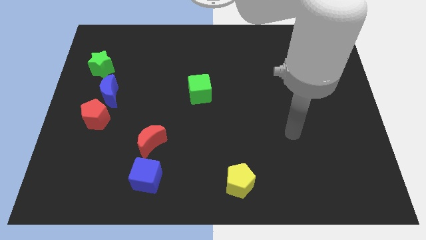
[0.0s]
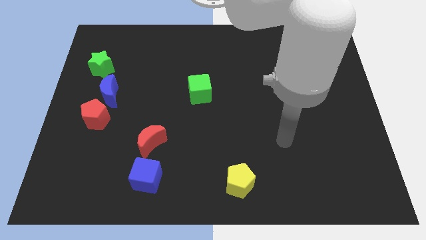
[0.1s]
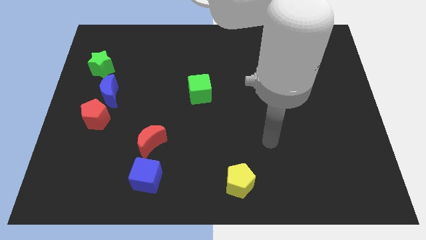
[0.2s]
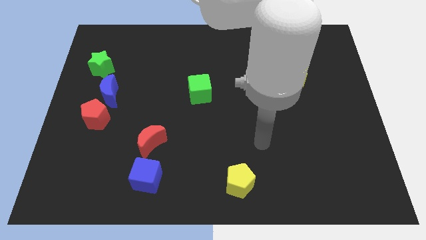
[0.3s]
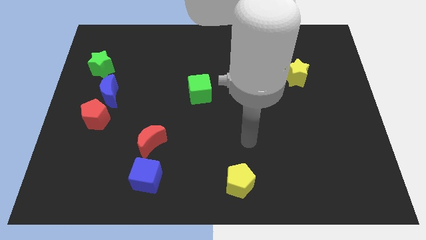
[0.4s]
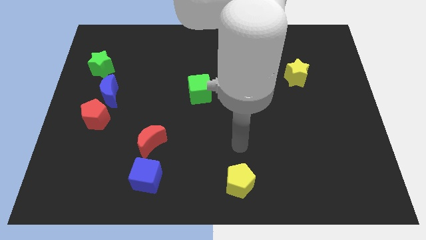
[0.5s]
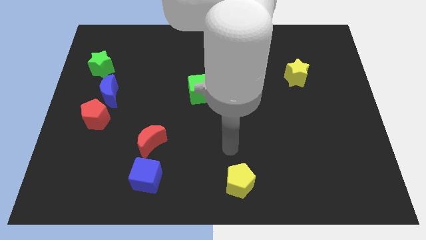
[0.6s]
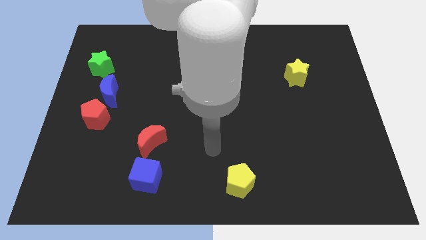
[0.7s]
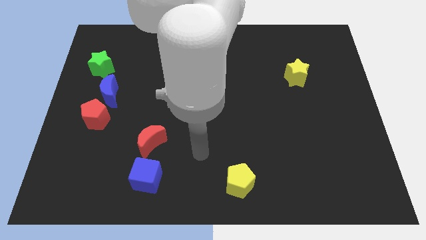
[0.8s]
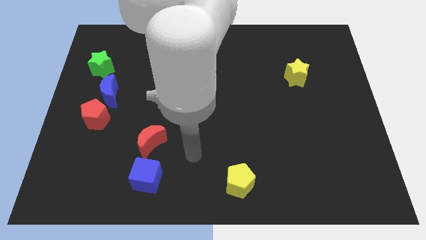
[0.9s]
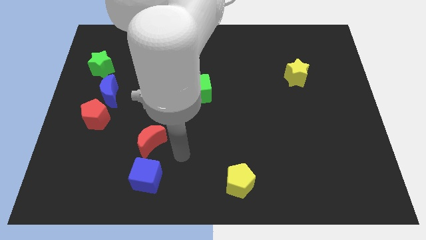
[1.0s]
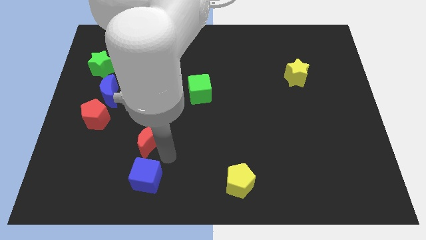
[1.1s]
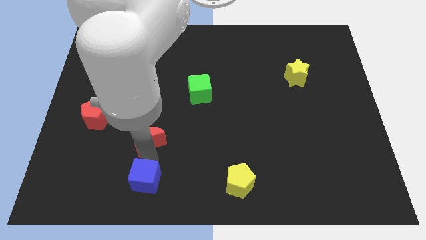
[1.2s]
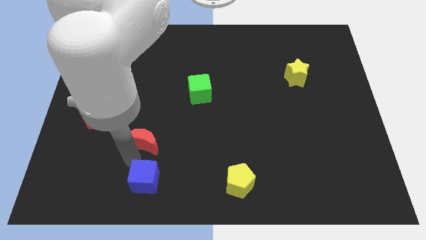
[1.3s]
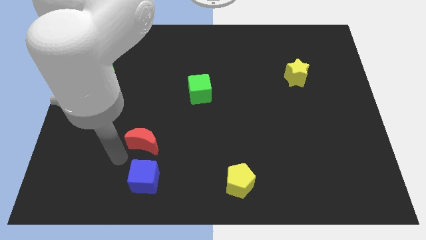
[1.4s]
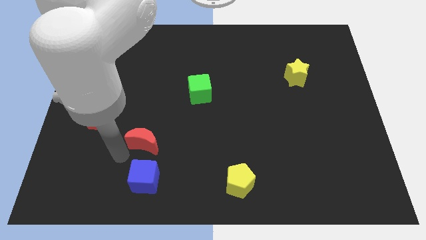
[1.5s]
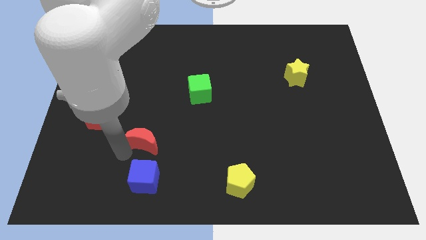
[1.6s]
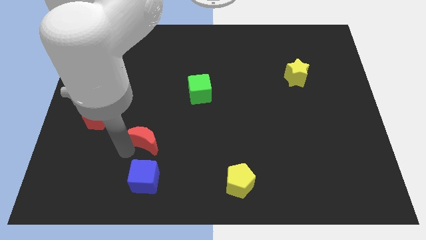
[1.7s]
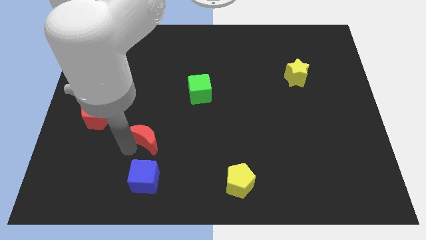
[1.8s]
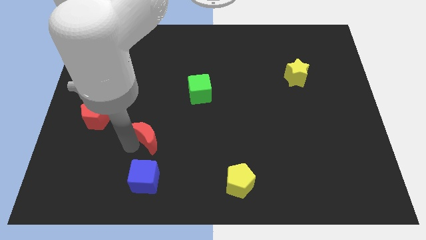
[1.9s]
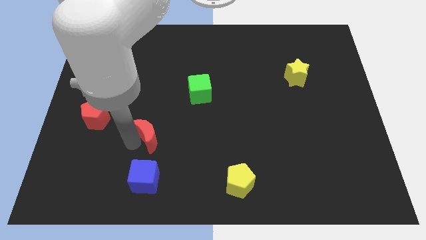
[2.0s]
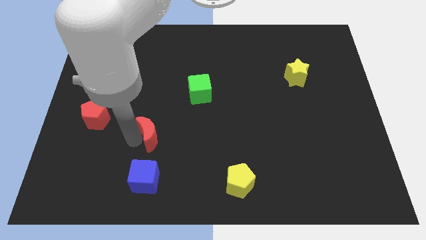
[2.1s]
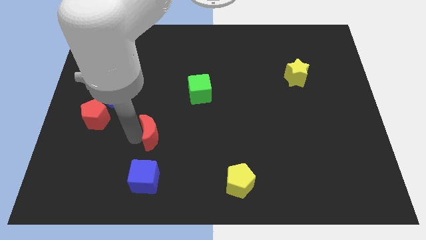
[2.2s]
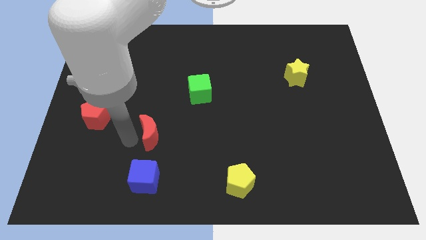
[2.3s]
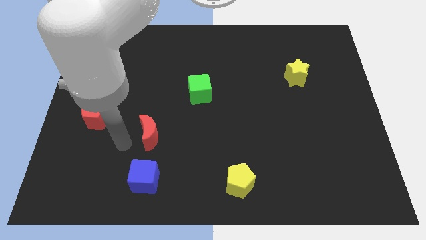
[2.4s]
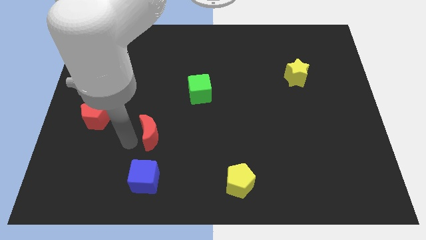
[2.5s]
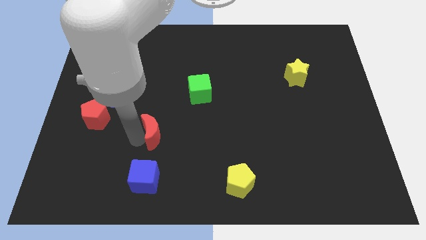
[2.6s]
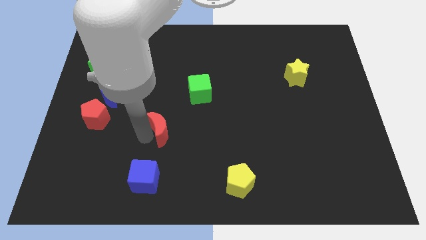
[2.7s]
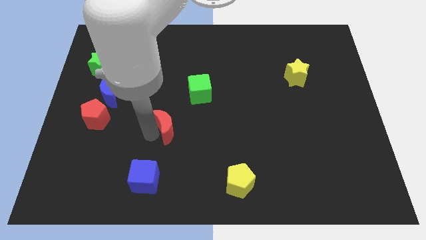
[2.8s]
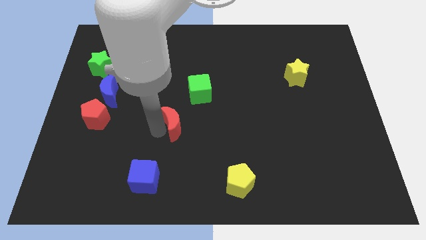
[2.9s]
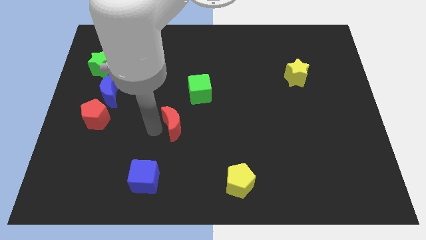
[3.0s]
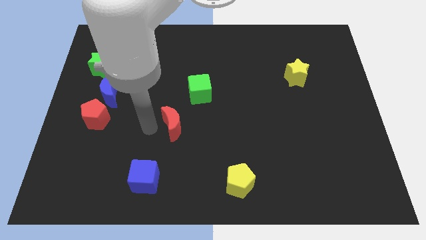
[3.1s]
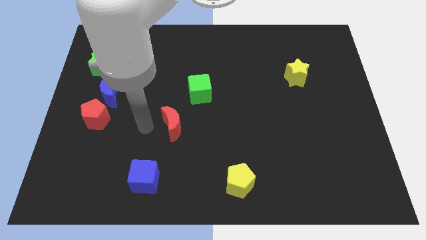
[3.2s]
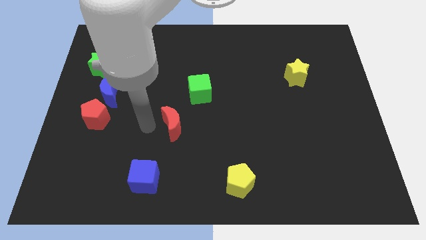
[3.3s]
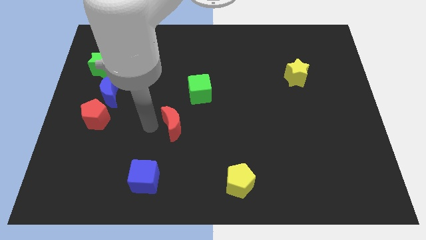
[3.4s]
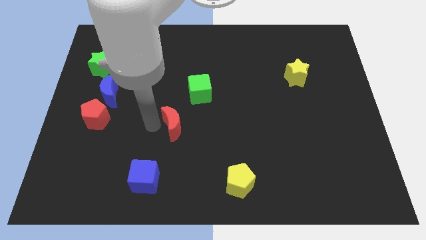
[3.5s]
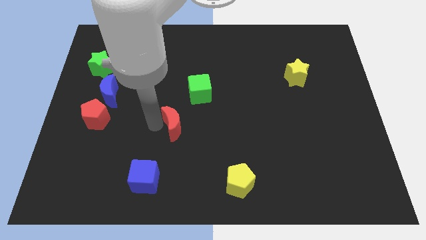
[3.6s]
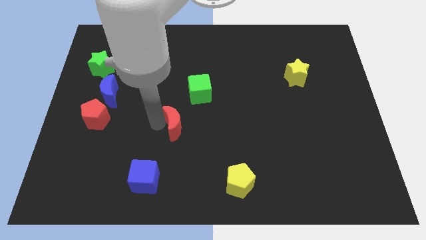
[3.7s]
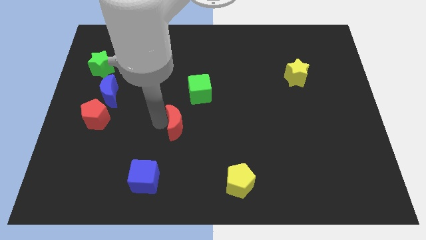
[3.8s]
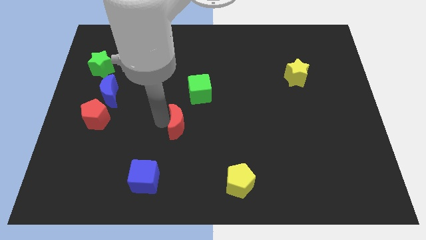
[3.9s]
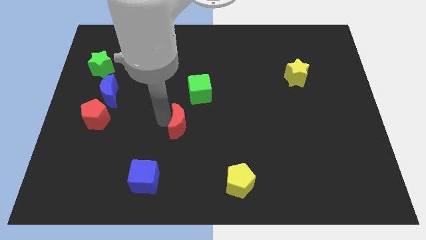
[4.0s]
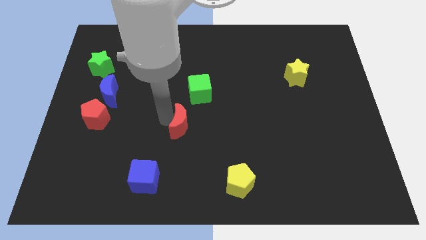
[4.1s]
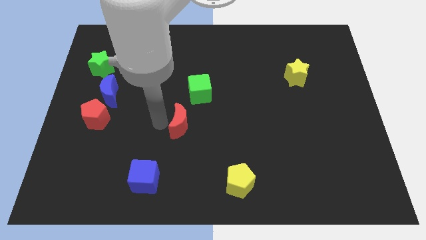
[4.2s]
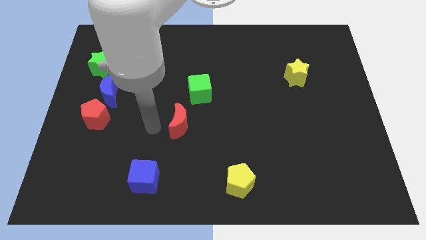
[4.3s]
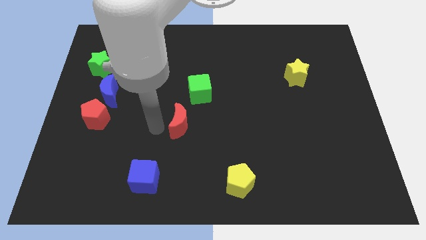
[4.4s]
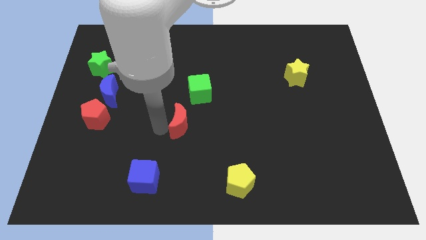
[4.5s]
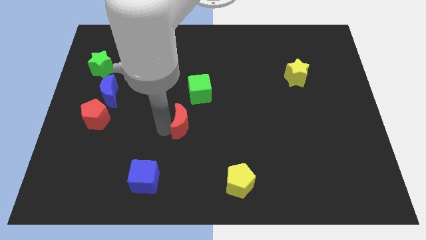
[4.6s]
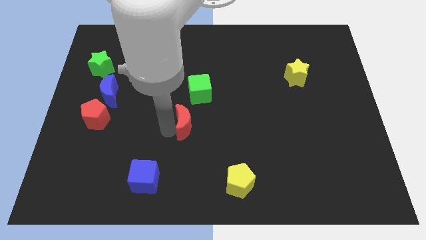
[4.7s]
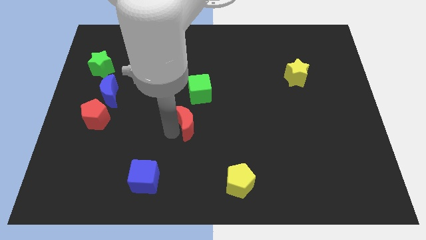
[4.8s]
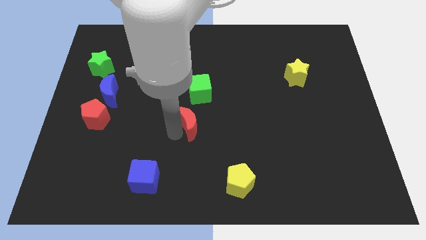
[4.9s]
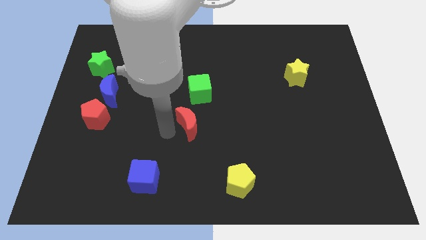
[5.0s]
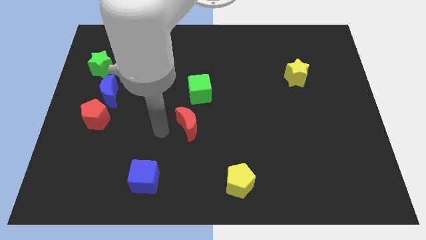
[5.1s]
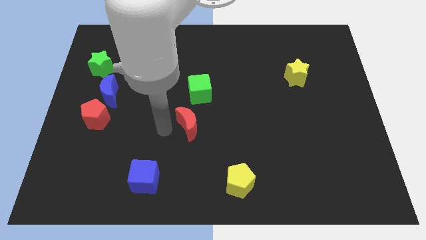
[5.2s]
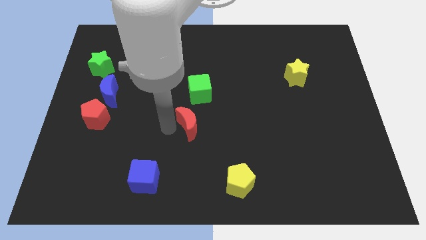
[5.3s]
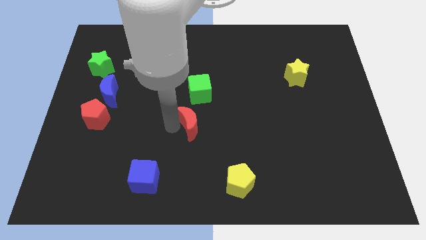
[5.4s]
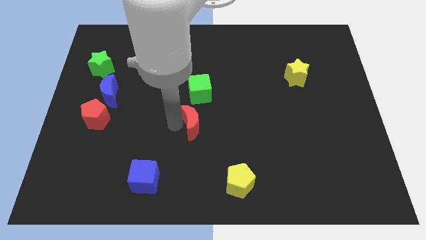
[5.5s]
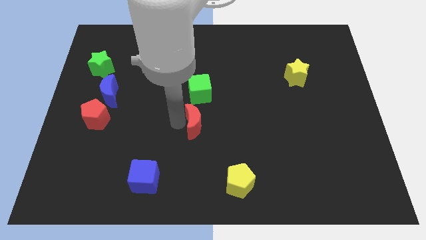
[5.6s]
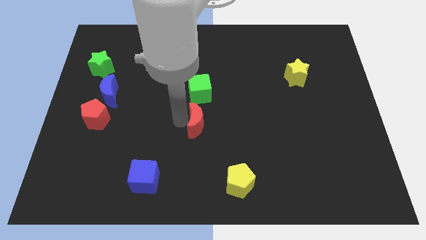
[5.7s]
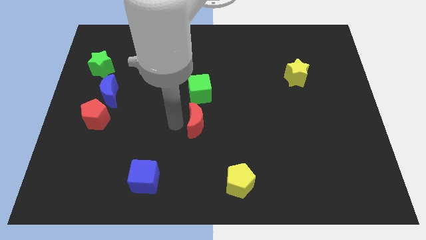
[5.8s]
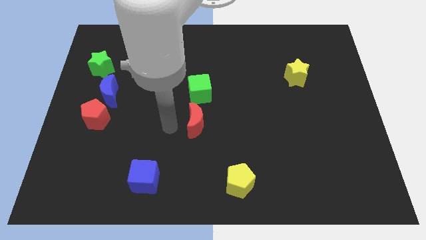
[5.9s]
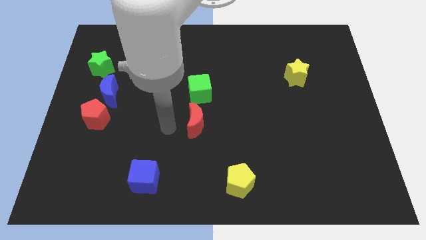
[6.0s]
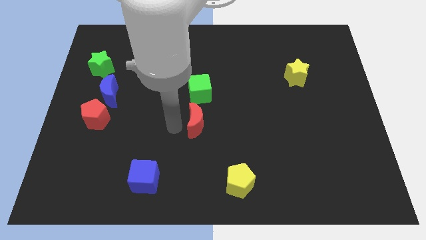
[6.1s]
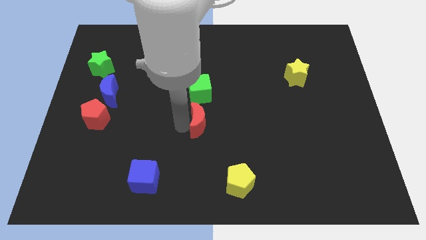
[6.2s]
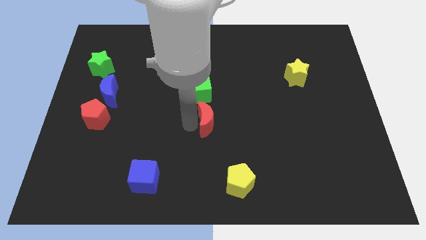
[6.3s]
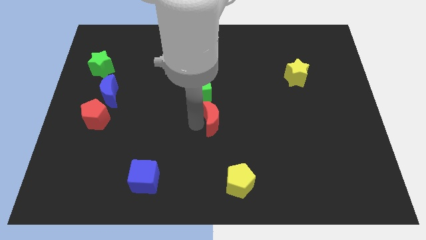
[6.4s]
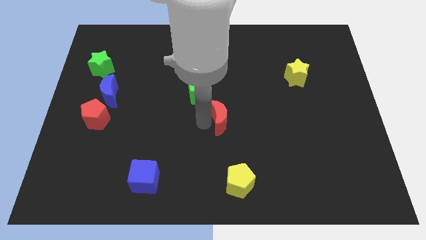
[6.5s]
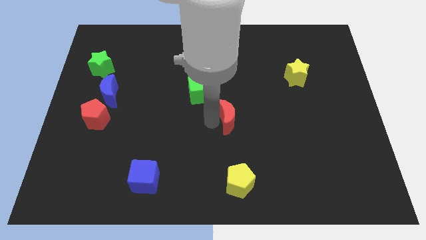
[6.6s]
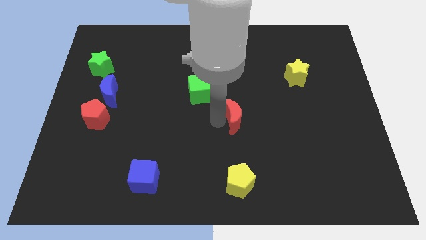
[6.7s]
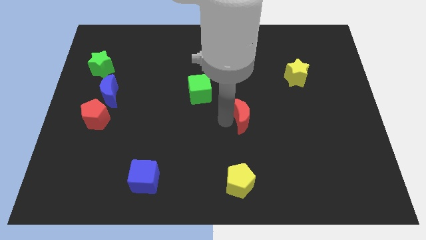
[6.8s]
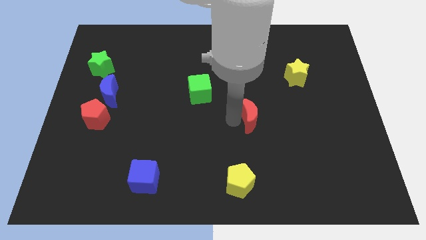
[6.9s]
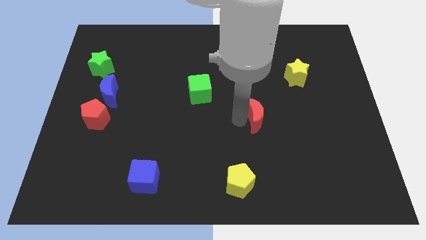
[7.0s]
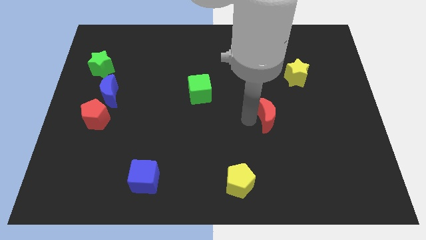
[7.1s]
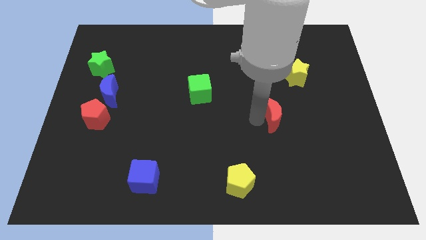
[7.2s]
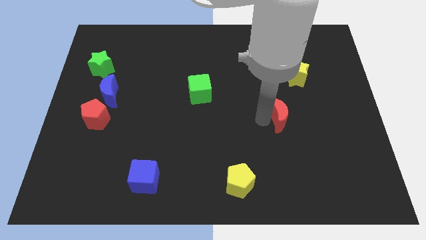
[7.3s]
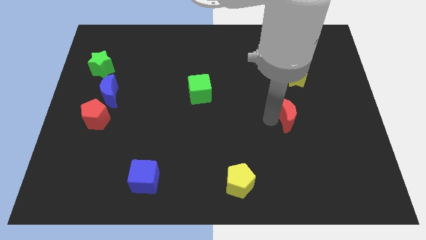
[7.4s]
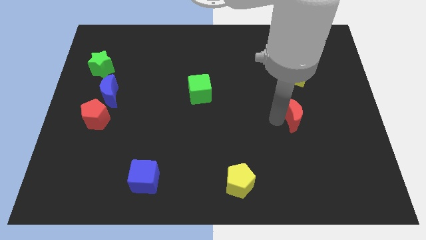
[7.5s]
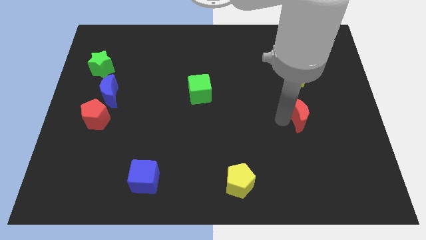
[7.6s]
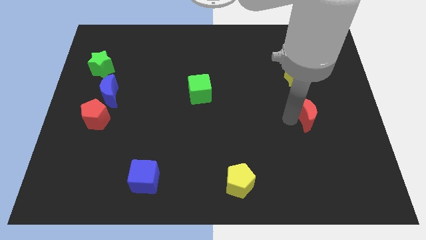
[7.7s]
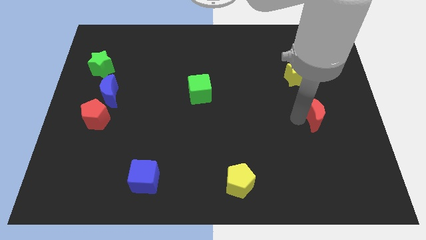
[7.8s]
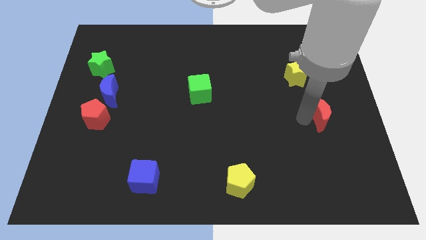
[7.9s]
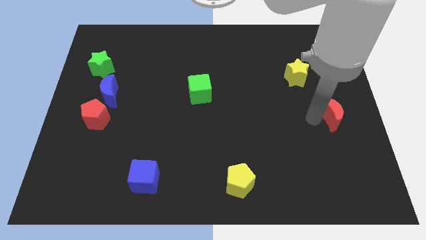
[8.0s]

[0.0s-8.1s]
put the red moon to the center right
